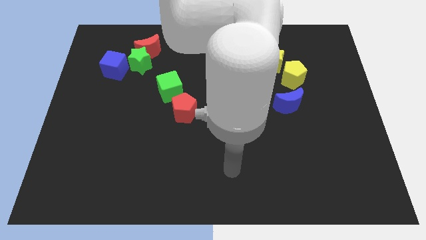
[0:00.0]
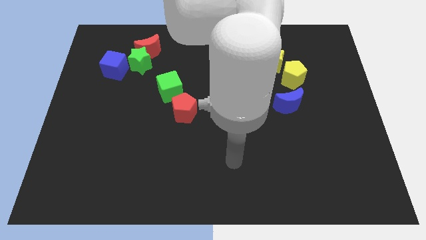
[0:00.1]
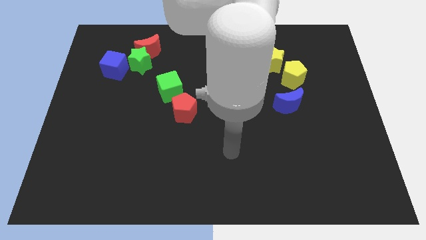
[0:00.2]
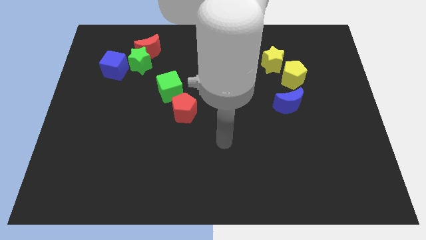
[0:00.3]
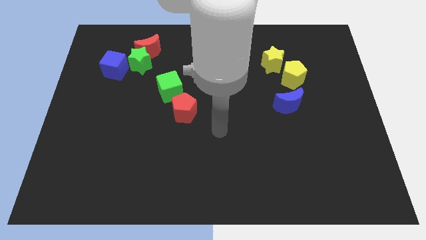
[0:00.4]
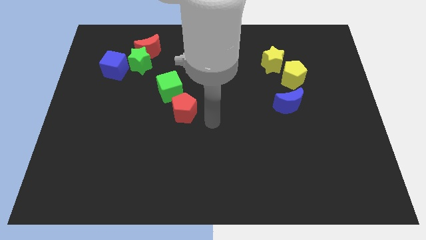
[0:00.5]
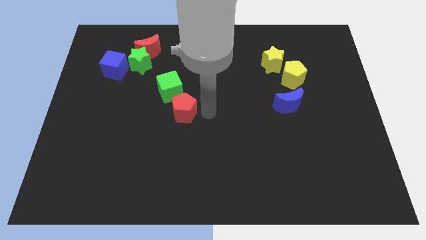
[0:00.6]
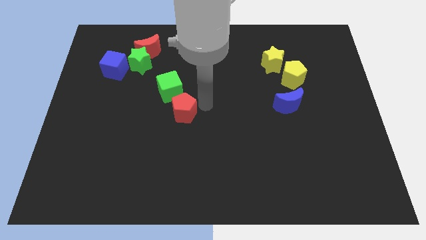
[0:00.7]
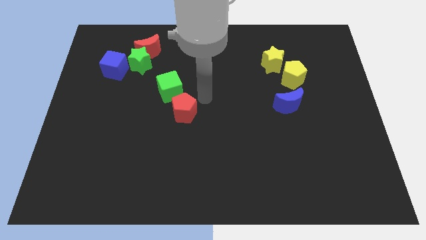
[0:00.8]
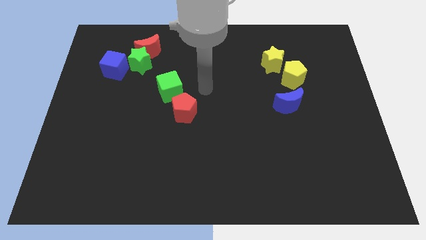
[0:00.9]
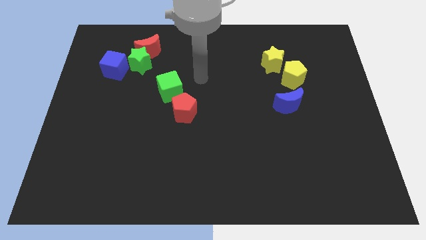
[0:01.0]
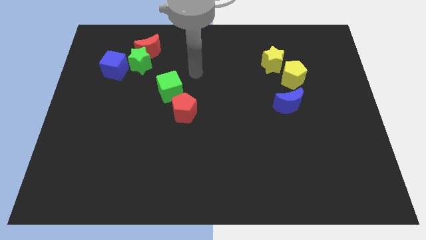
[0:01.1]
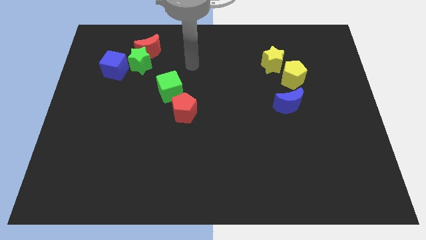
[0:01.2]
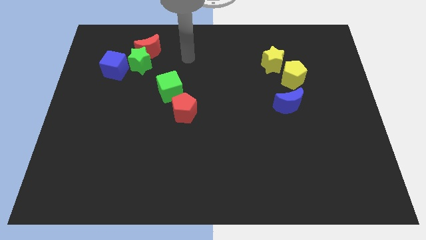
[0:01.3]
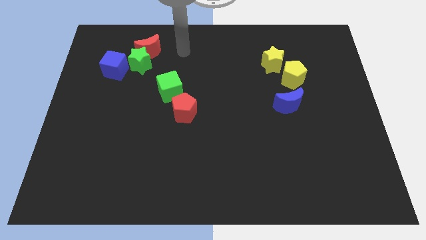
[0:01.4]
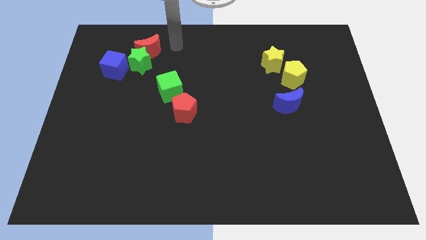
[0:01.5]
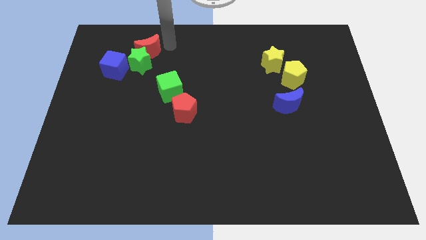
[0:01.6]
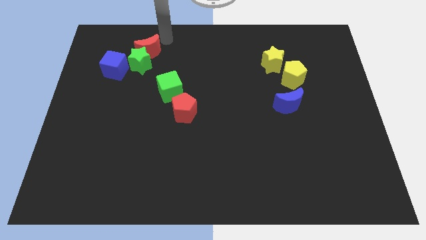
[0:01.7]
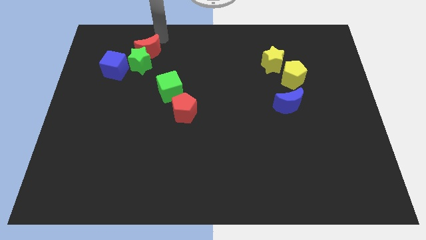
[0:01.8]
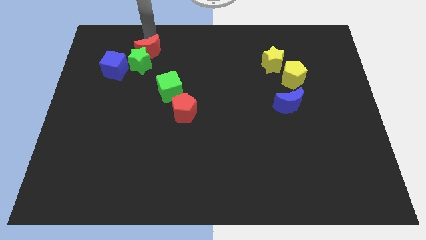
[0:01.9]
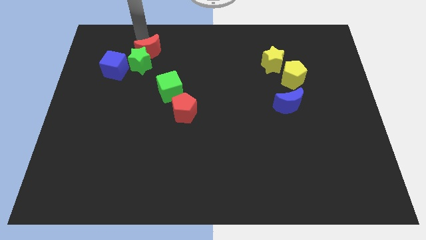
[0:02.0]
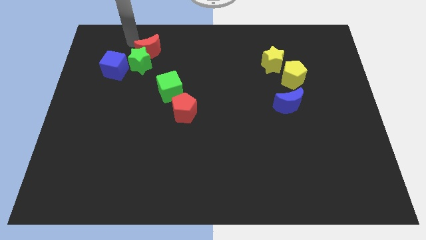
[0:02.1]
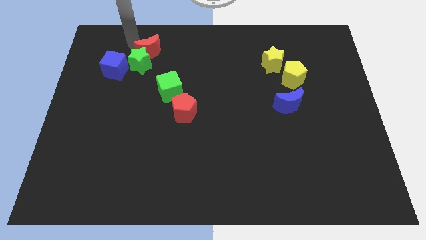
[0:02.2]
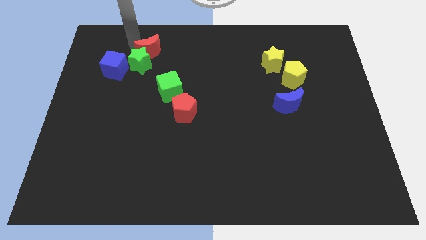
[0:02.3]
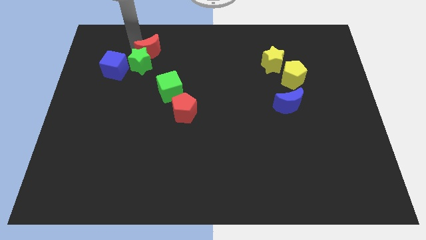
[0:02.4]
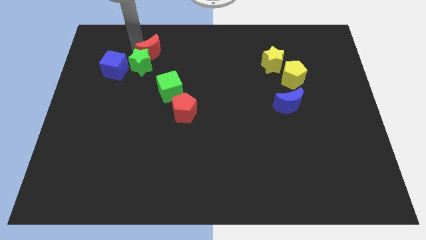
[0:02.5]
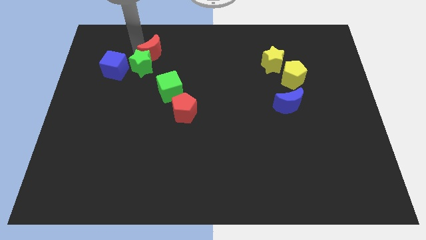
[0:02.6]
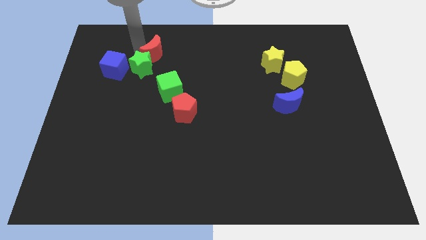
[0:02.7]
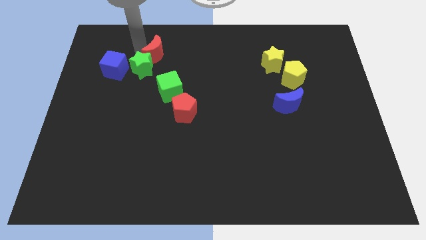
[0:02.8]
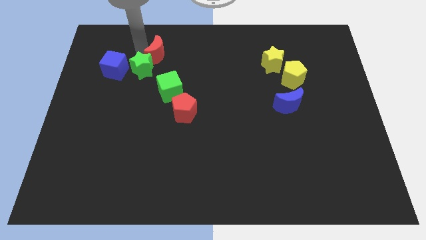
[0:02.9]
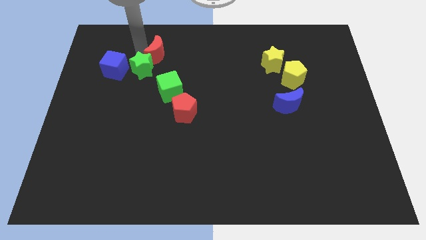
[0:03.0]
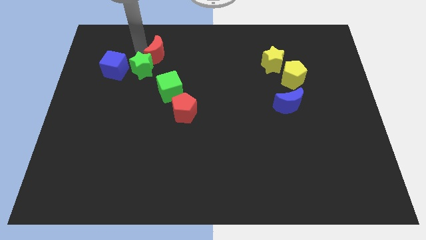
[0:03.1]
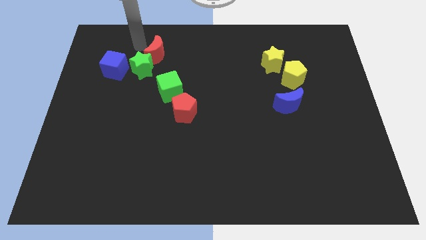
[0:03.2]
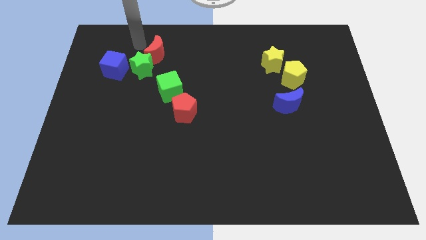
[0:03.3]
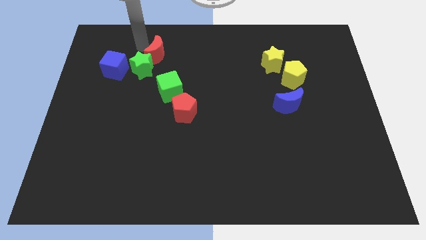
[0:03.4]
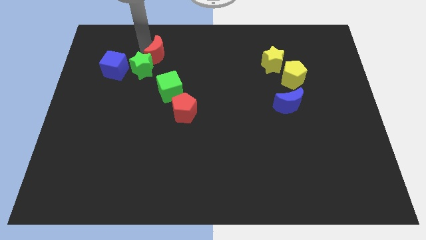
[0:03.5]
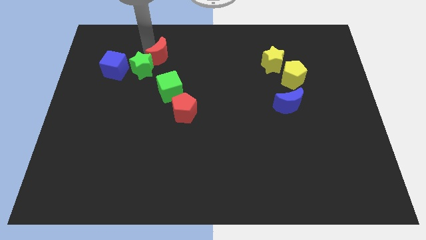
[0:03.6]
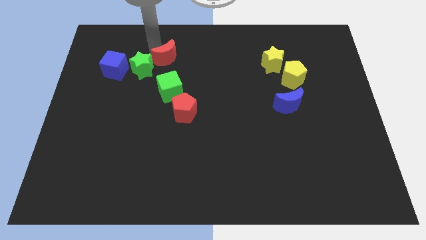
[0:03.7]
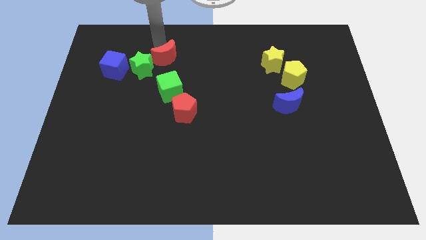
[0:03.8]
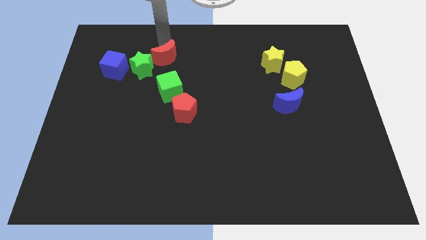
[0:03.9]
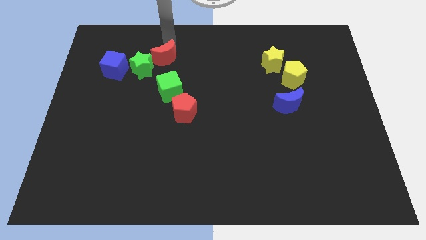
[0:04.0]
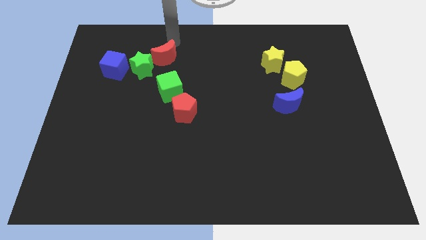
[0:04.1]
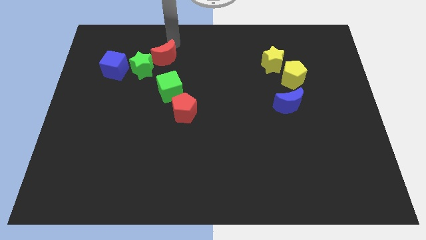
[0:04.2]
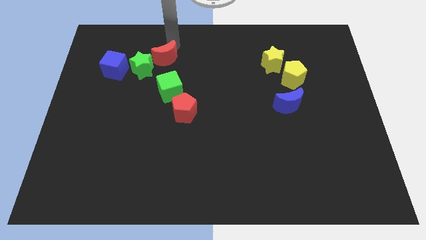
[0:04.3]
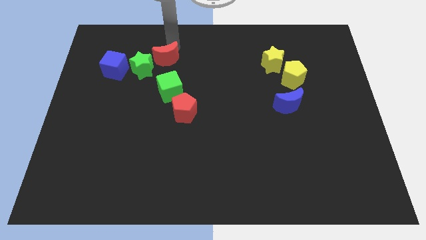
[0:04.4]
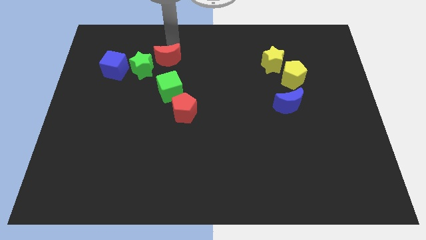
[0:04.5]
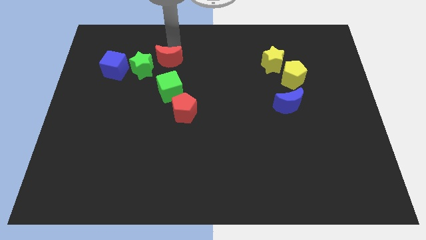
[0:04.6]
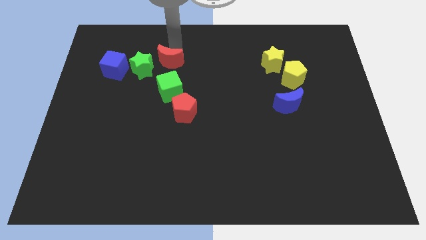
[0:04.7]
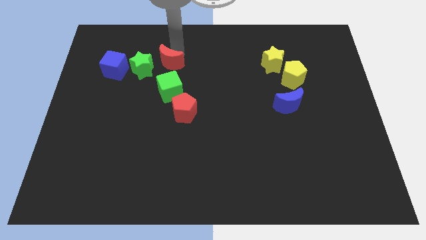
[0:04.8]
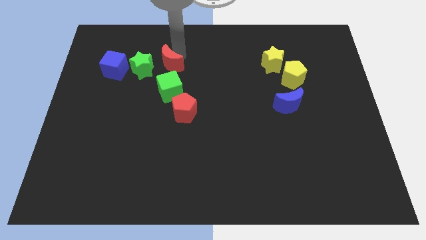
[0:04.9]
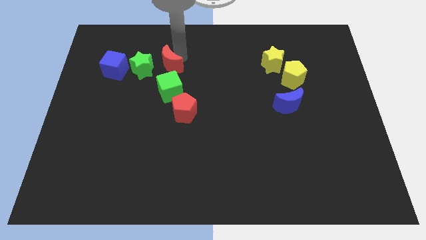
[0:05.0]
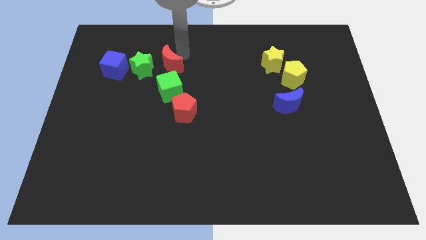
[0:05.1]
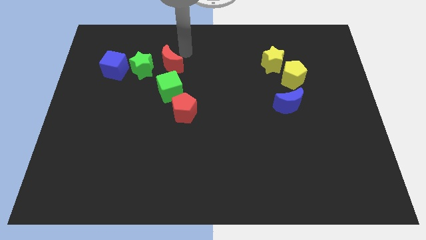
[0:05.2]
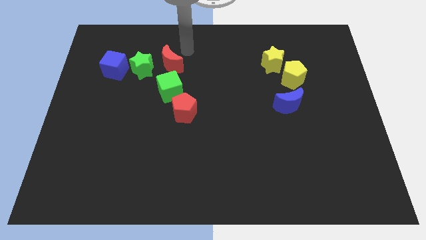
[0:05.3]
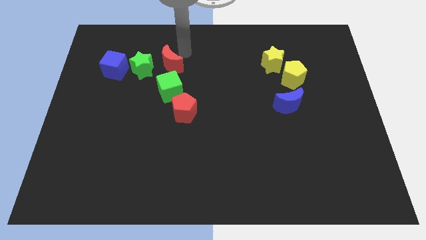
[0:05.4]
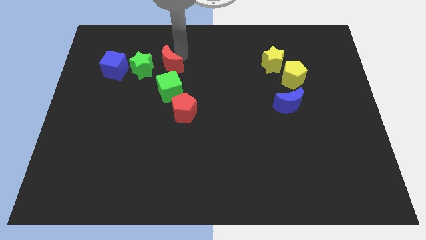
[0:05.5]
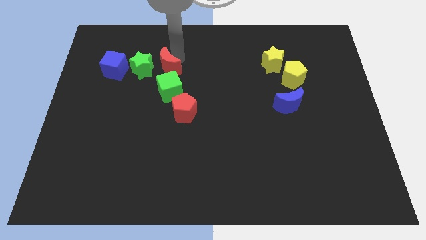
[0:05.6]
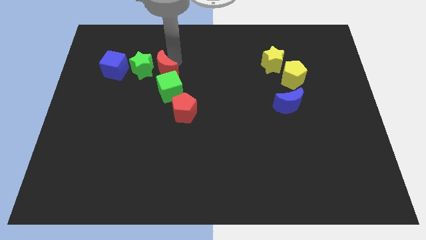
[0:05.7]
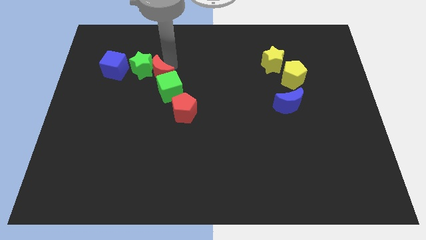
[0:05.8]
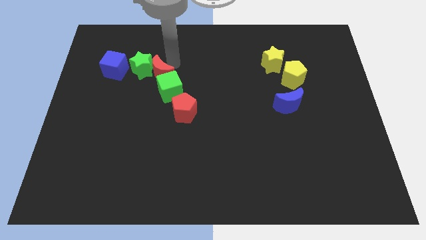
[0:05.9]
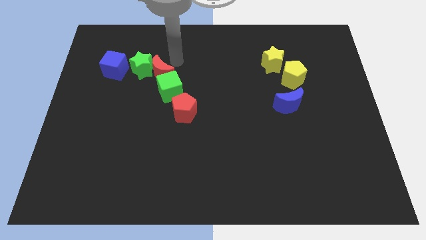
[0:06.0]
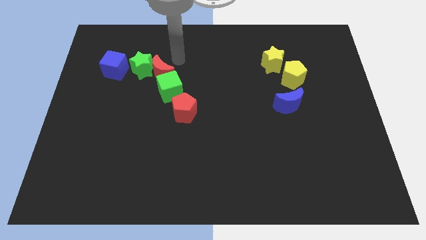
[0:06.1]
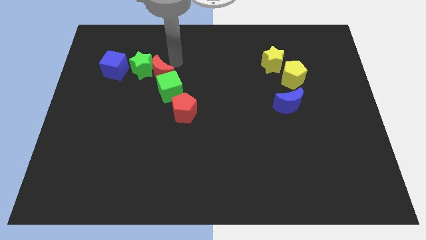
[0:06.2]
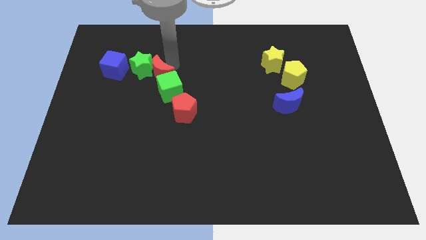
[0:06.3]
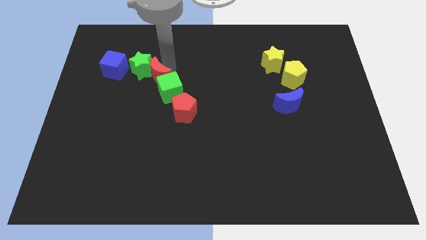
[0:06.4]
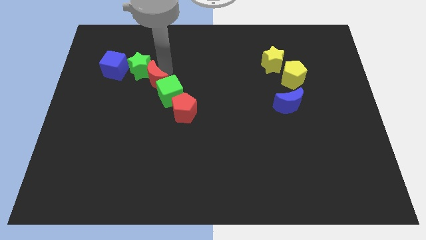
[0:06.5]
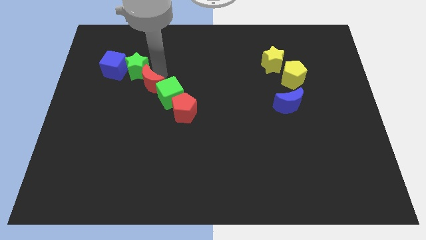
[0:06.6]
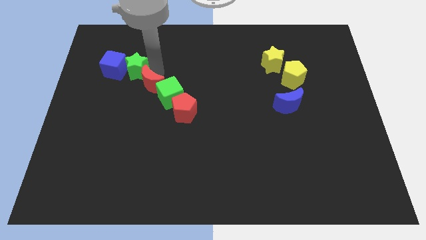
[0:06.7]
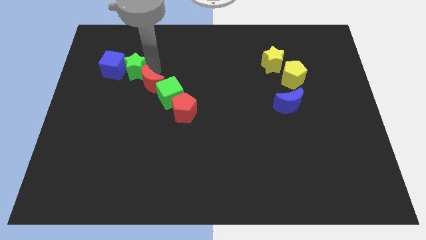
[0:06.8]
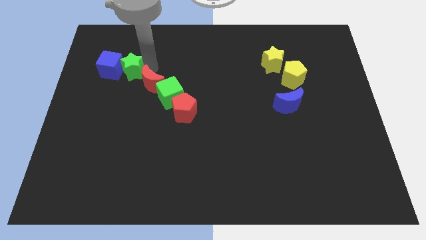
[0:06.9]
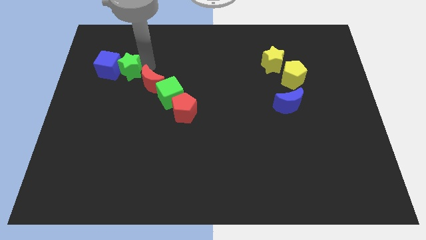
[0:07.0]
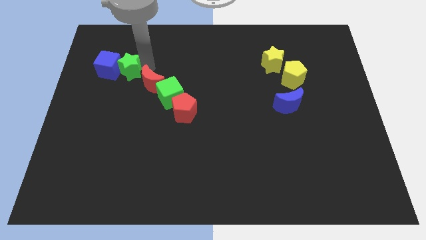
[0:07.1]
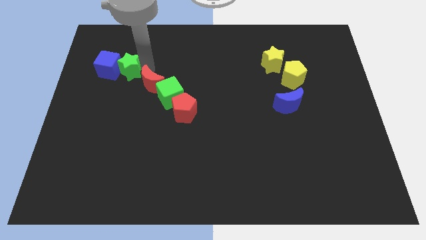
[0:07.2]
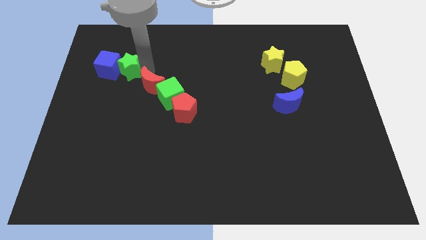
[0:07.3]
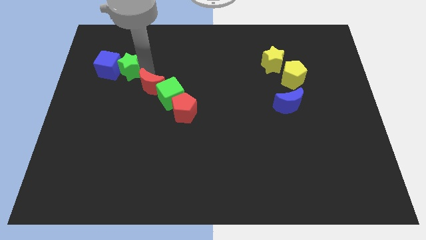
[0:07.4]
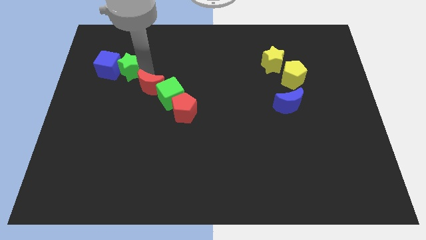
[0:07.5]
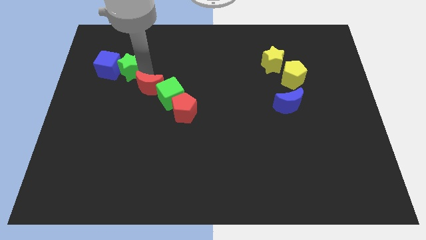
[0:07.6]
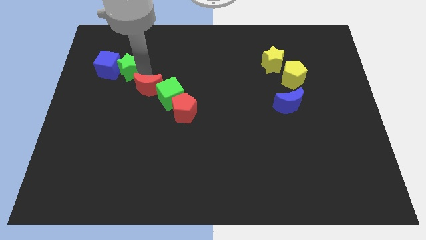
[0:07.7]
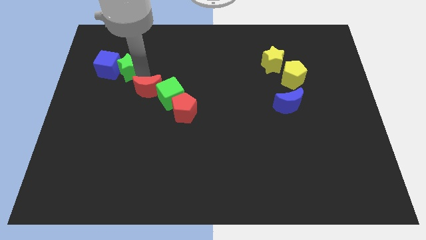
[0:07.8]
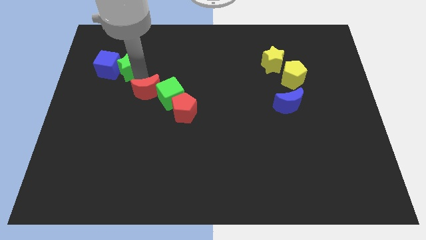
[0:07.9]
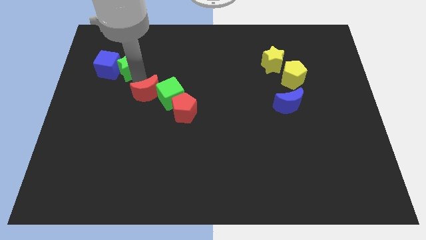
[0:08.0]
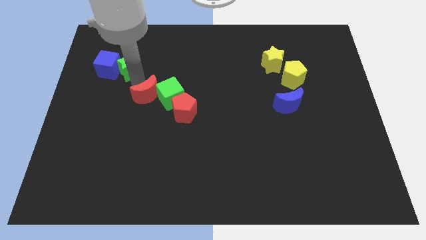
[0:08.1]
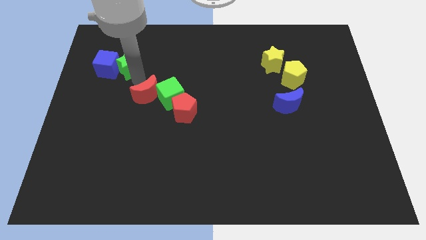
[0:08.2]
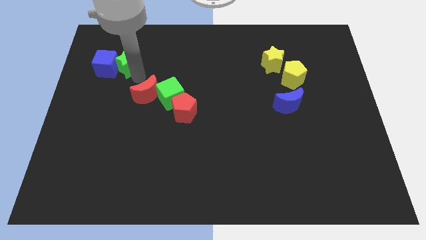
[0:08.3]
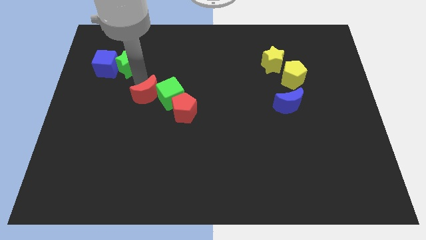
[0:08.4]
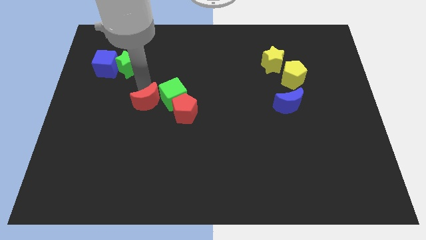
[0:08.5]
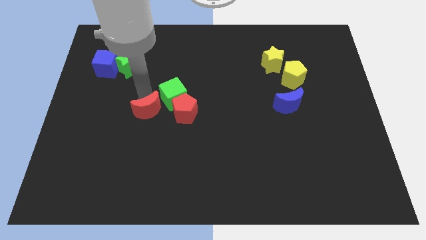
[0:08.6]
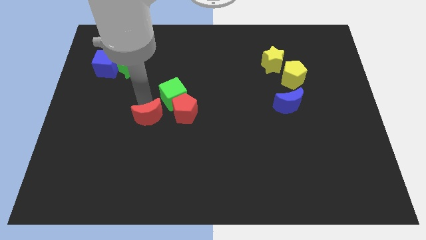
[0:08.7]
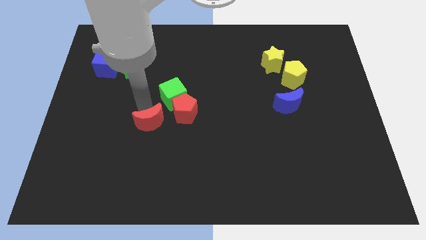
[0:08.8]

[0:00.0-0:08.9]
push the red moon to the bottom of the green cube
